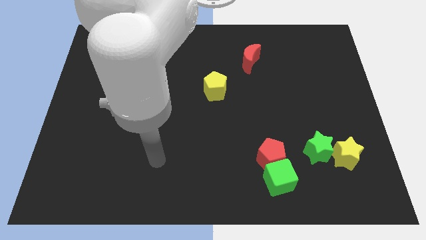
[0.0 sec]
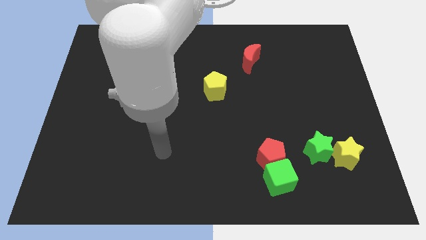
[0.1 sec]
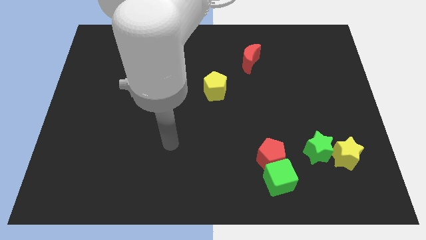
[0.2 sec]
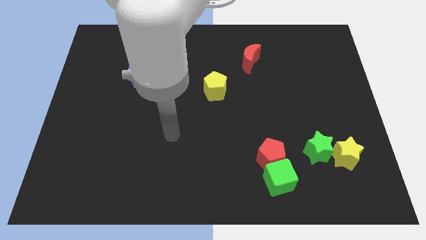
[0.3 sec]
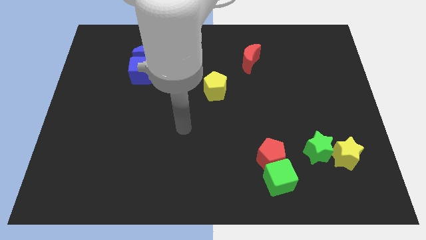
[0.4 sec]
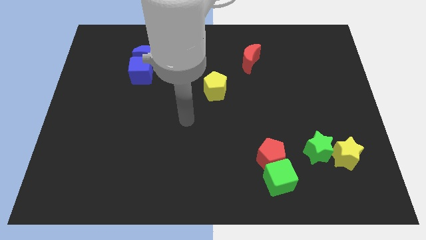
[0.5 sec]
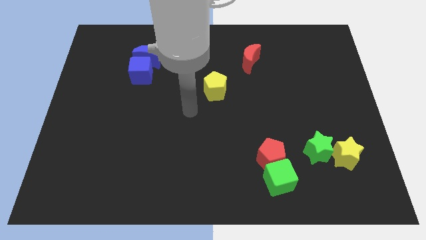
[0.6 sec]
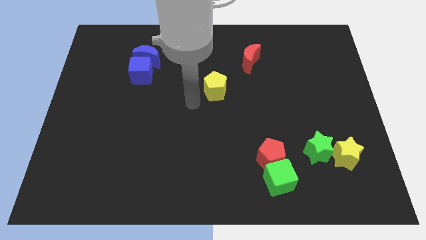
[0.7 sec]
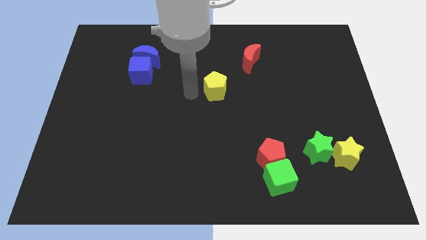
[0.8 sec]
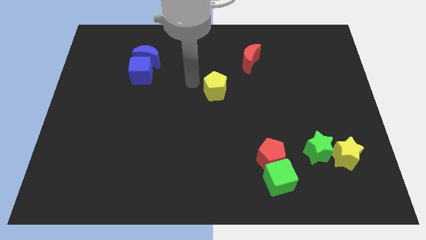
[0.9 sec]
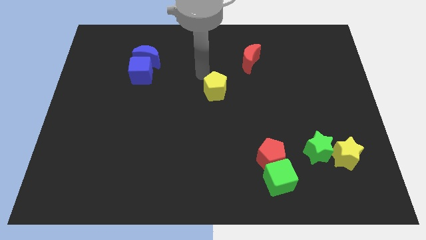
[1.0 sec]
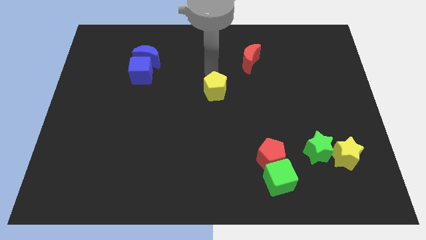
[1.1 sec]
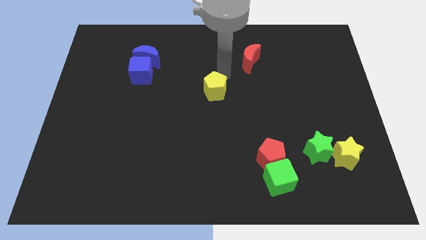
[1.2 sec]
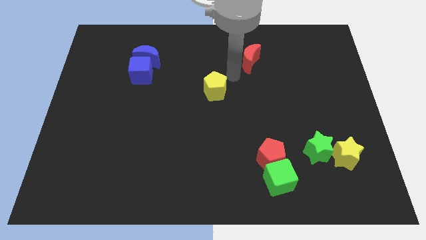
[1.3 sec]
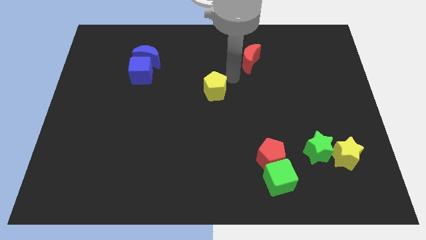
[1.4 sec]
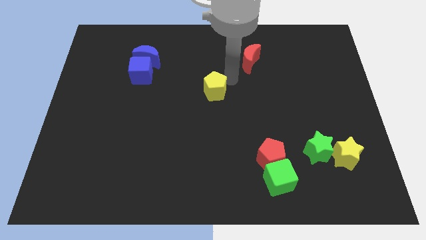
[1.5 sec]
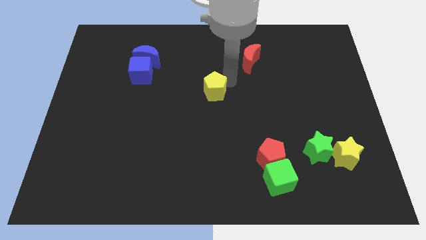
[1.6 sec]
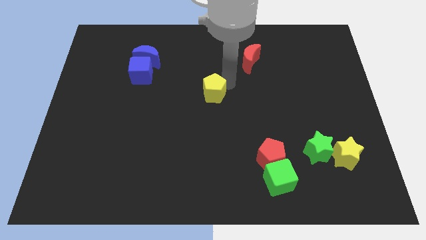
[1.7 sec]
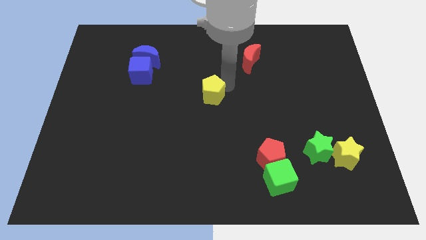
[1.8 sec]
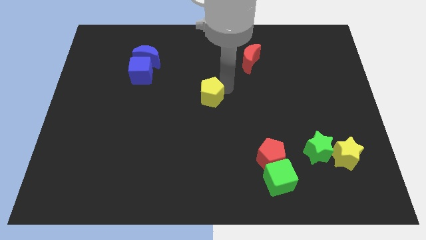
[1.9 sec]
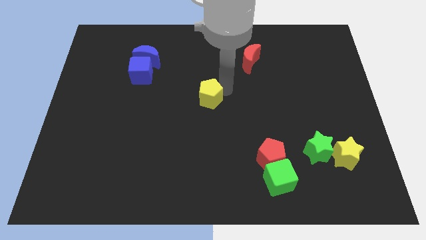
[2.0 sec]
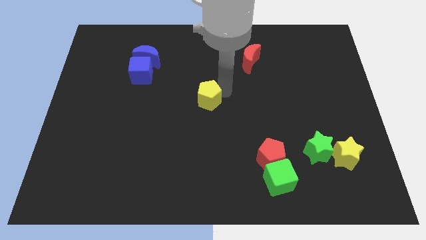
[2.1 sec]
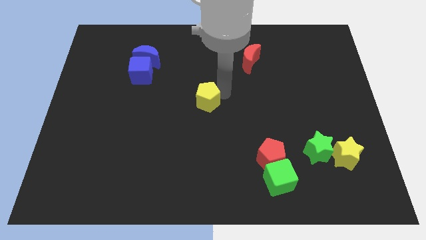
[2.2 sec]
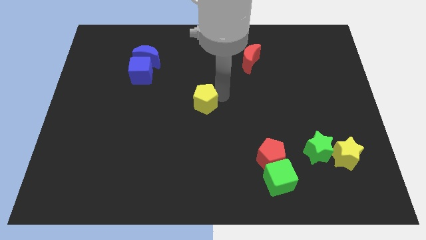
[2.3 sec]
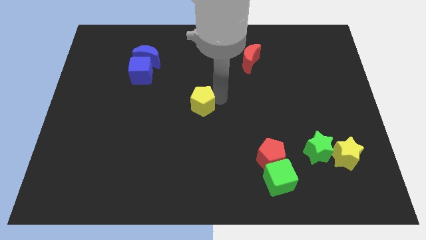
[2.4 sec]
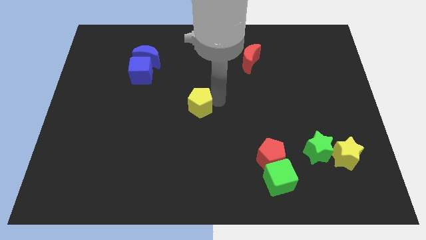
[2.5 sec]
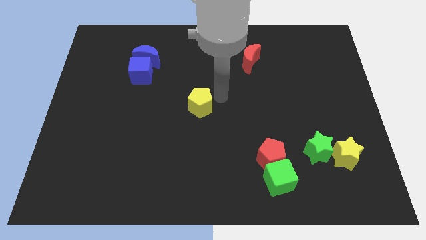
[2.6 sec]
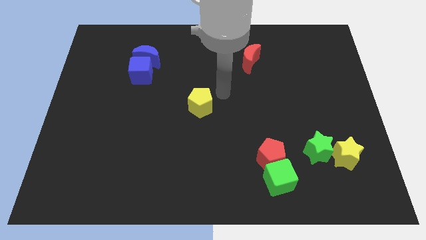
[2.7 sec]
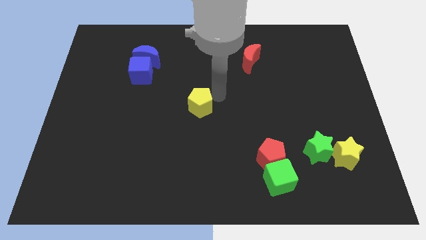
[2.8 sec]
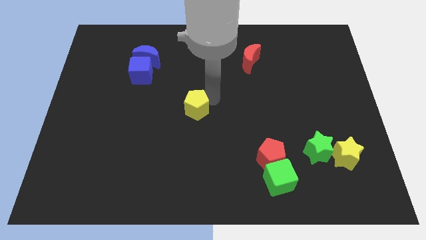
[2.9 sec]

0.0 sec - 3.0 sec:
move the yellow pentagon somewhat down and left diagonally

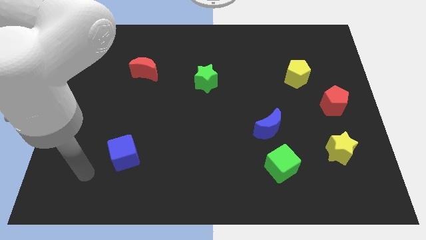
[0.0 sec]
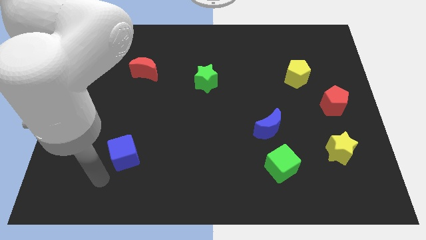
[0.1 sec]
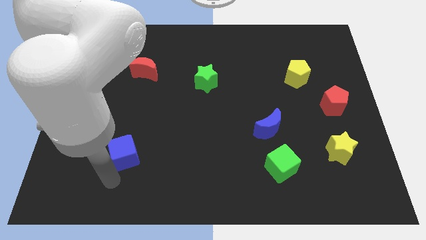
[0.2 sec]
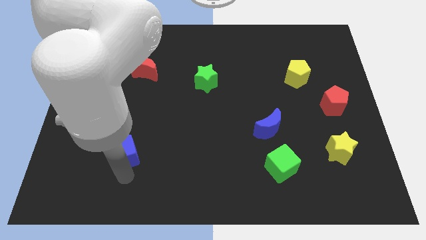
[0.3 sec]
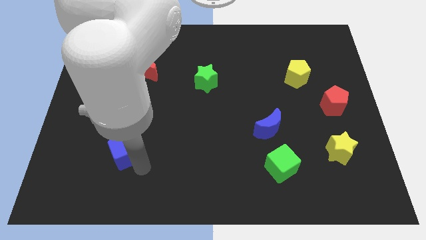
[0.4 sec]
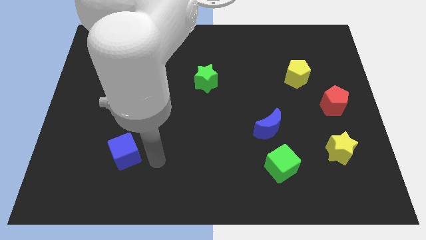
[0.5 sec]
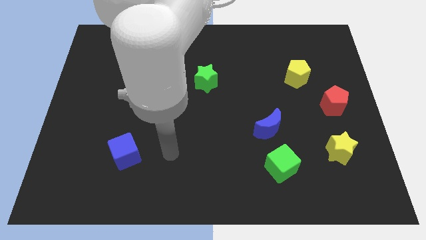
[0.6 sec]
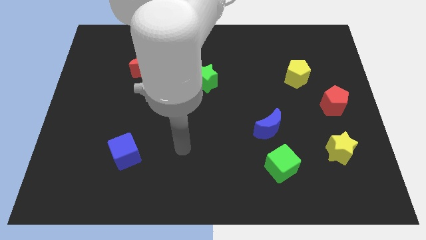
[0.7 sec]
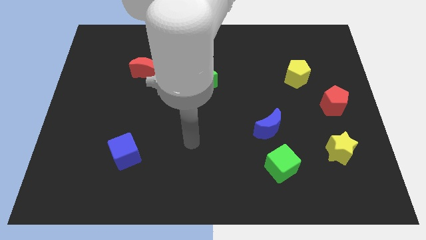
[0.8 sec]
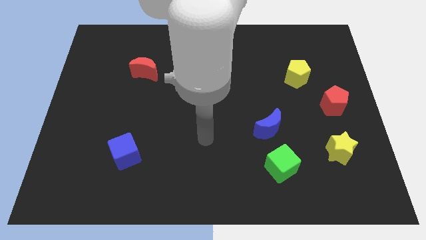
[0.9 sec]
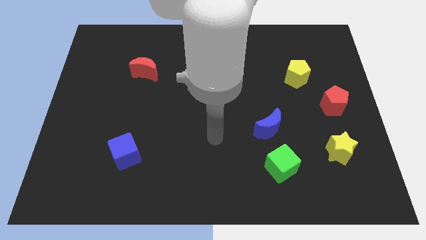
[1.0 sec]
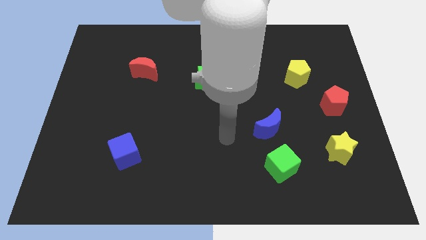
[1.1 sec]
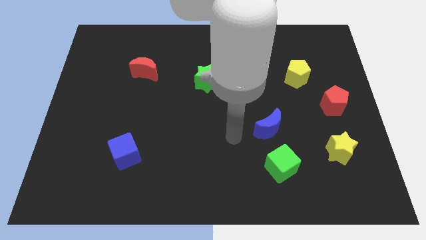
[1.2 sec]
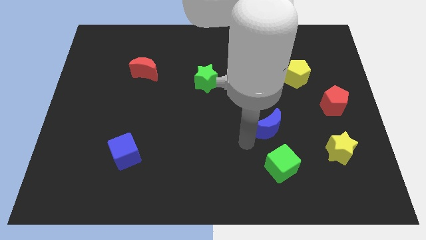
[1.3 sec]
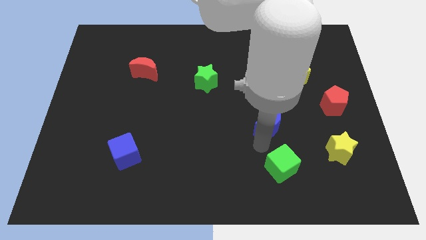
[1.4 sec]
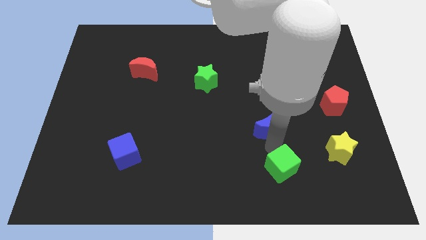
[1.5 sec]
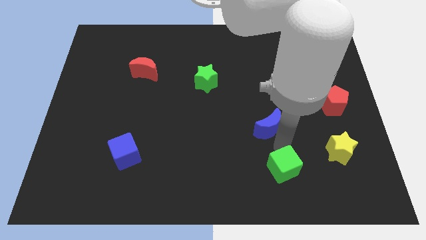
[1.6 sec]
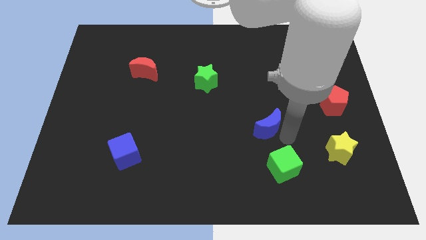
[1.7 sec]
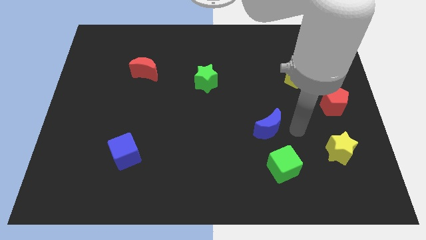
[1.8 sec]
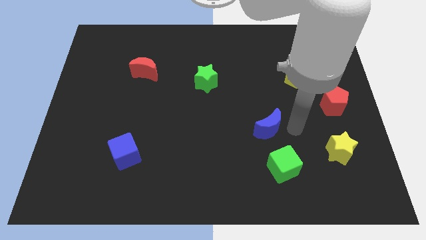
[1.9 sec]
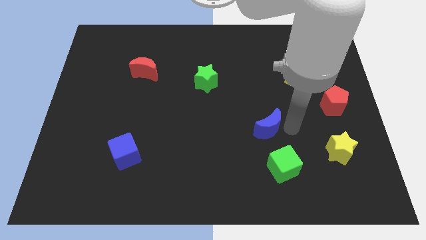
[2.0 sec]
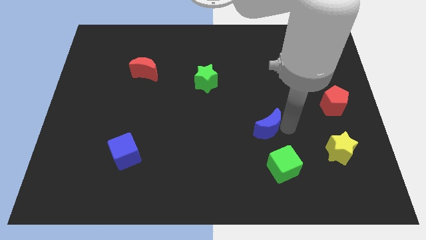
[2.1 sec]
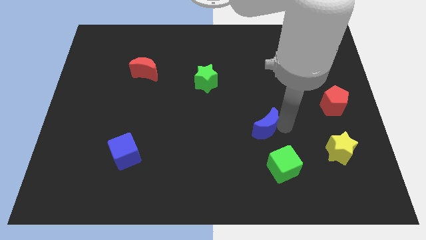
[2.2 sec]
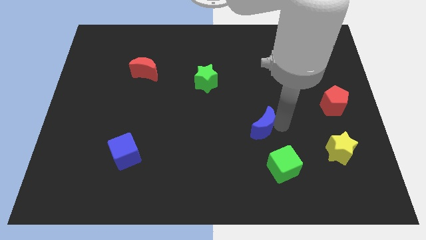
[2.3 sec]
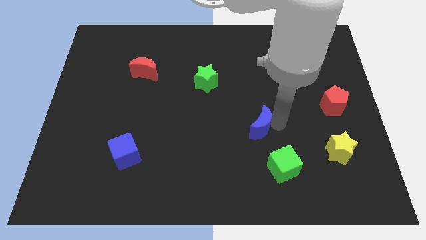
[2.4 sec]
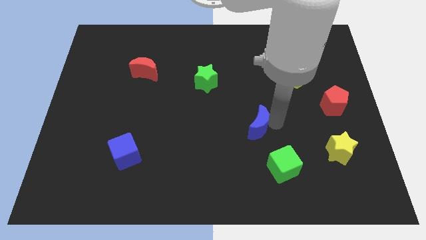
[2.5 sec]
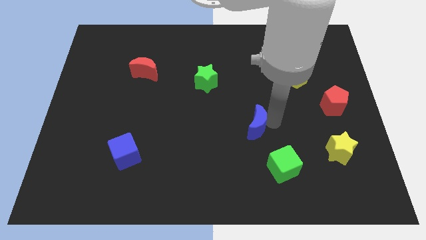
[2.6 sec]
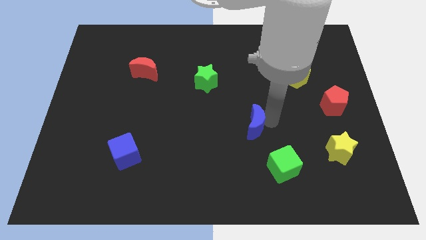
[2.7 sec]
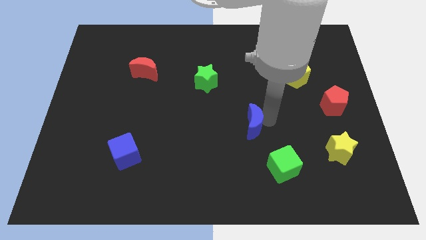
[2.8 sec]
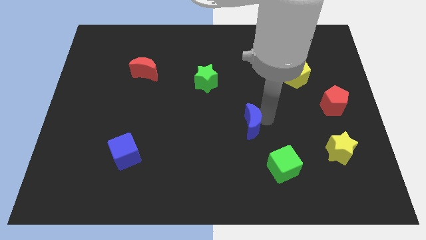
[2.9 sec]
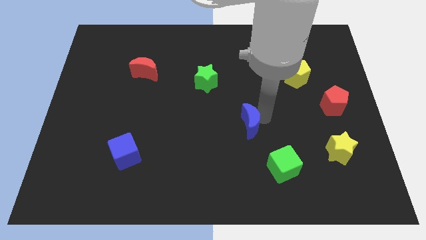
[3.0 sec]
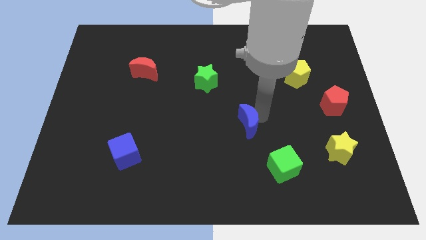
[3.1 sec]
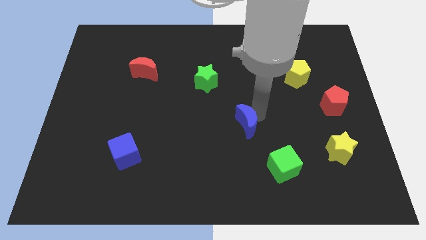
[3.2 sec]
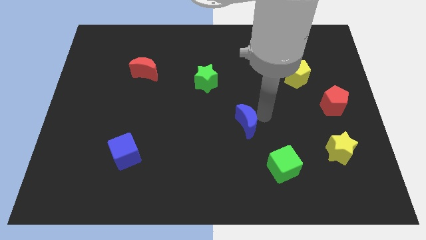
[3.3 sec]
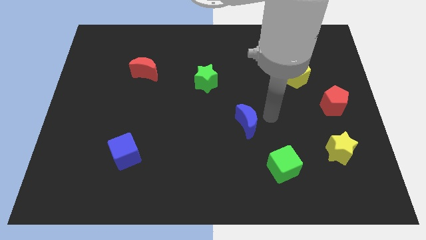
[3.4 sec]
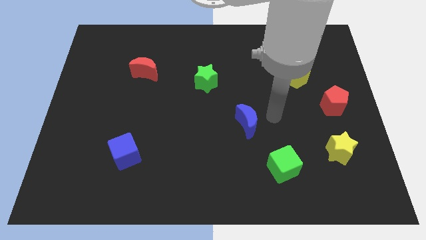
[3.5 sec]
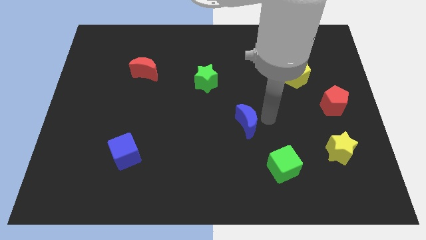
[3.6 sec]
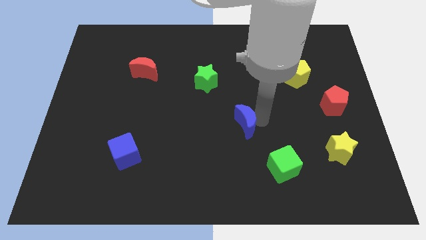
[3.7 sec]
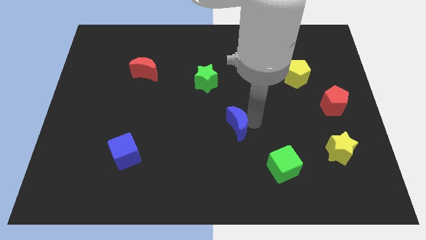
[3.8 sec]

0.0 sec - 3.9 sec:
slide the blue moon left slightly

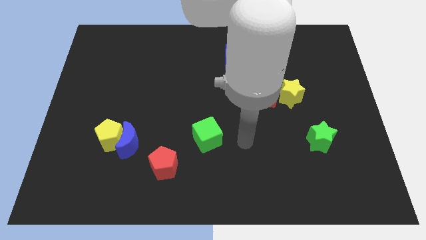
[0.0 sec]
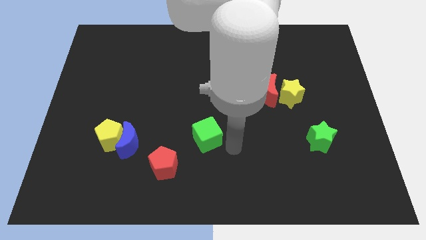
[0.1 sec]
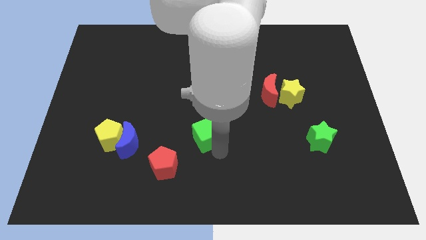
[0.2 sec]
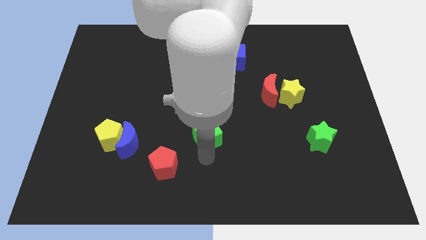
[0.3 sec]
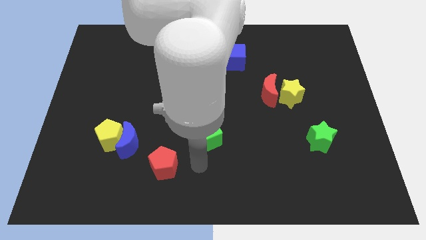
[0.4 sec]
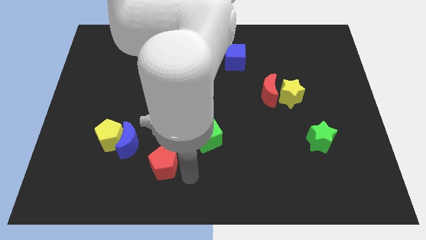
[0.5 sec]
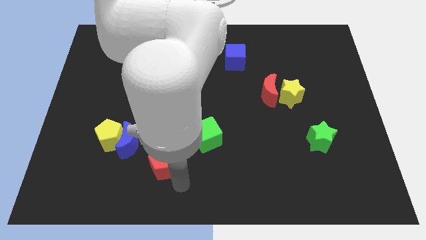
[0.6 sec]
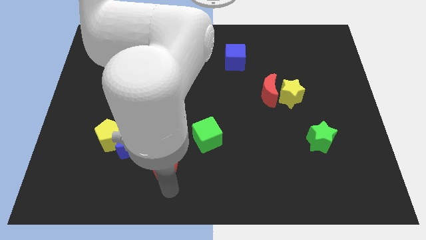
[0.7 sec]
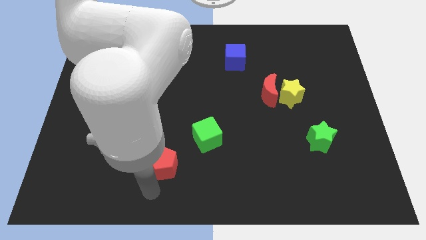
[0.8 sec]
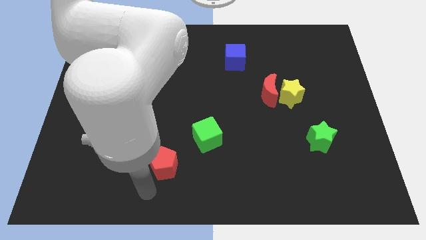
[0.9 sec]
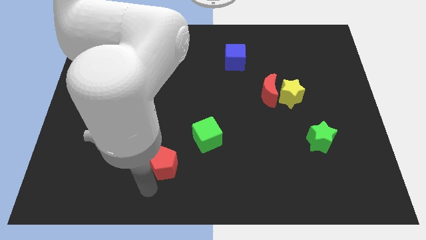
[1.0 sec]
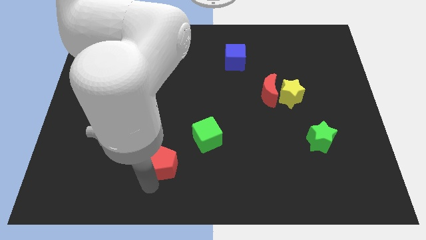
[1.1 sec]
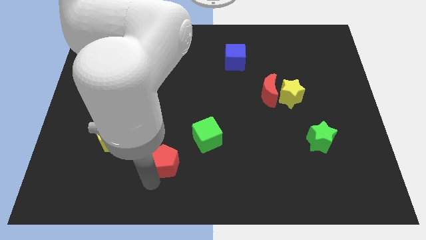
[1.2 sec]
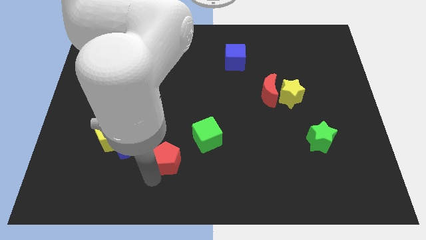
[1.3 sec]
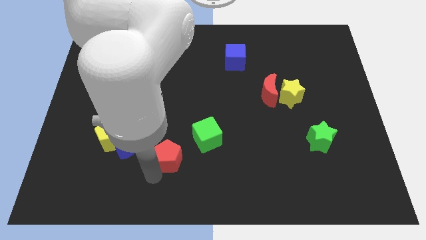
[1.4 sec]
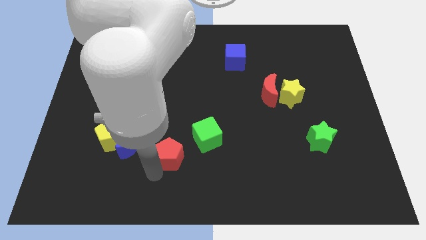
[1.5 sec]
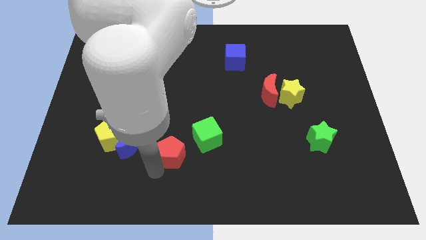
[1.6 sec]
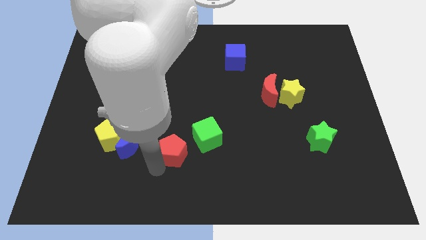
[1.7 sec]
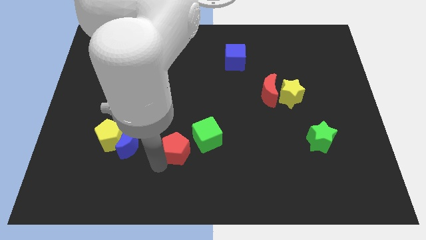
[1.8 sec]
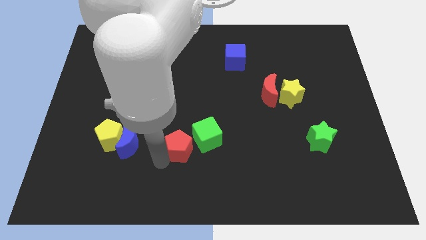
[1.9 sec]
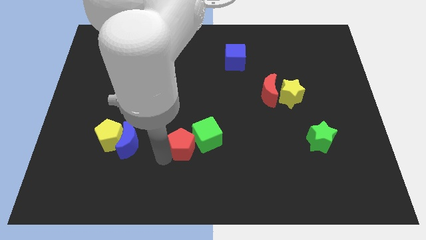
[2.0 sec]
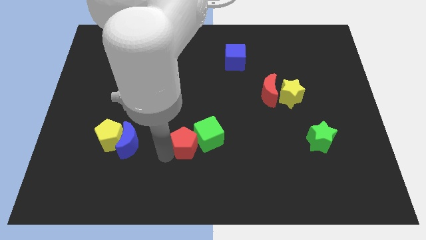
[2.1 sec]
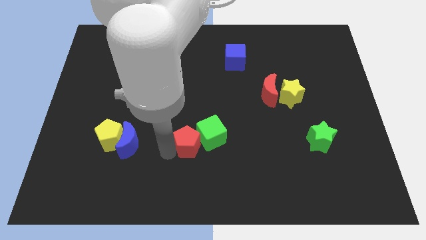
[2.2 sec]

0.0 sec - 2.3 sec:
slightly push the red pentagon upwards and to the right
